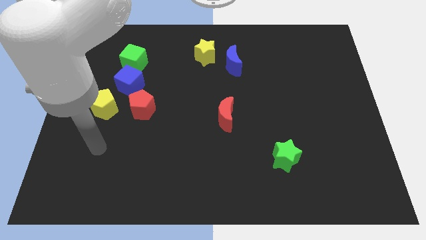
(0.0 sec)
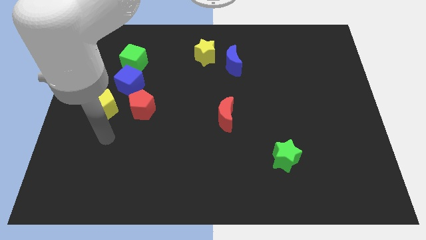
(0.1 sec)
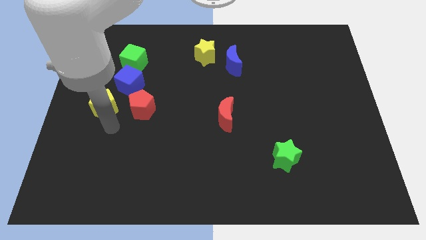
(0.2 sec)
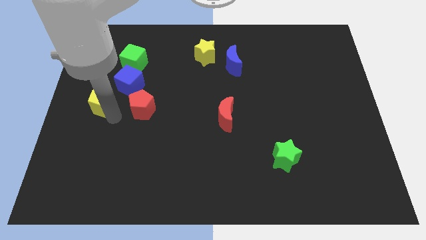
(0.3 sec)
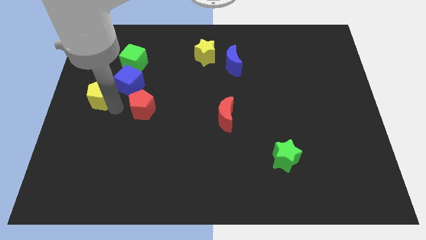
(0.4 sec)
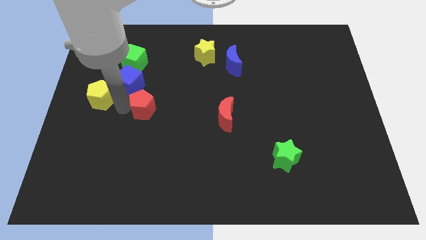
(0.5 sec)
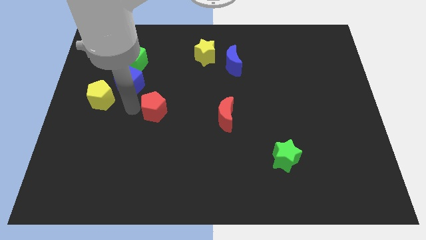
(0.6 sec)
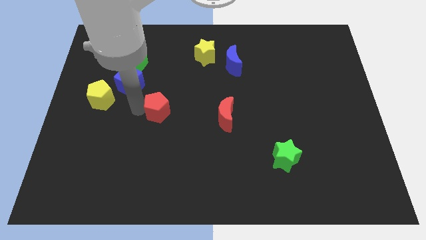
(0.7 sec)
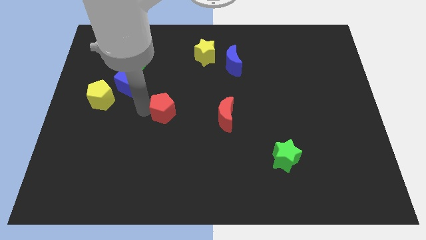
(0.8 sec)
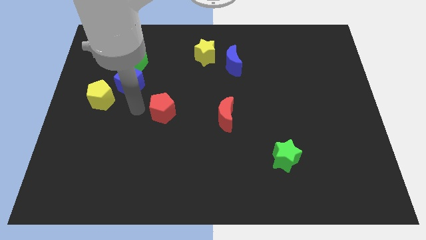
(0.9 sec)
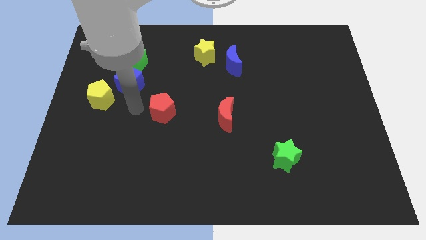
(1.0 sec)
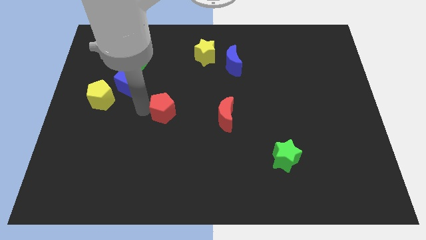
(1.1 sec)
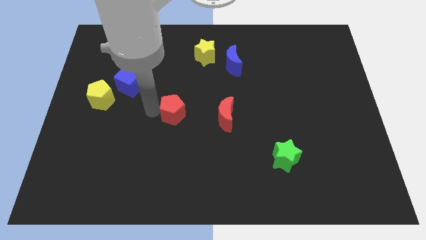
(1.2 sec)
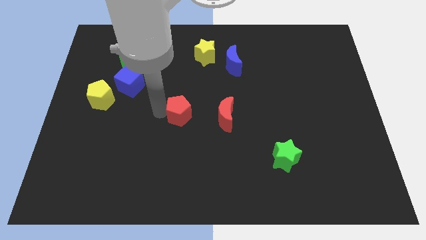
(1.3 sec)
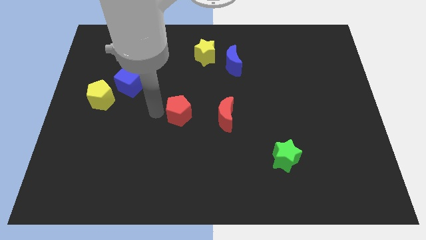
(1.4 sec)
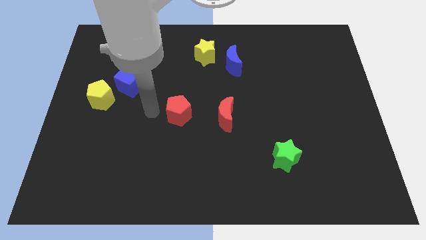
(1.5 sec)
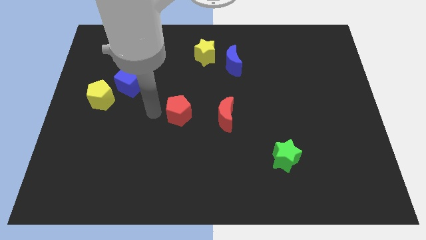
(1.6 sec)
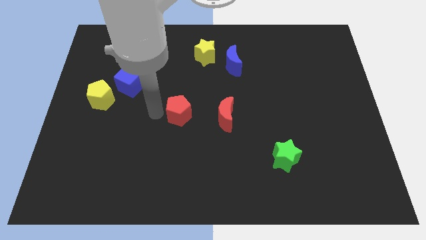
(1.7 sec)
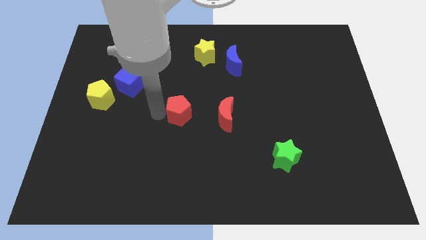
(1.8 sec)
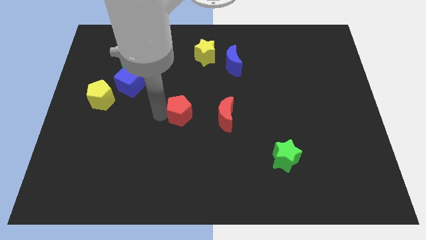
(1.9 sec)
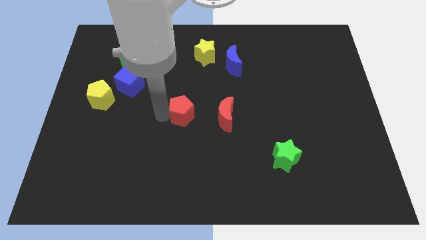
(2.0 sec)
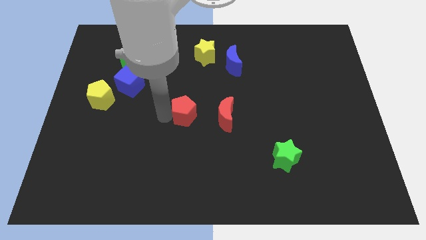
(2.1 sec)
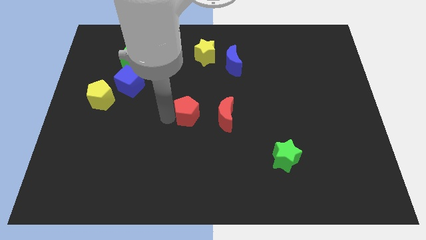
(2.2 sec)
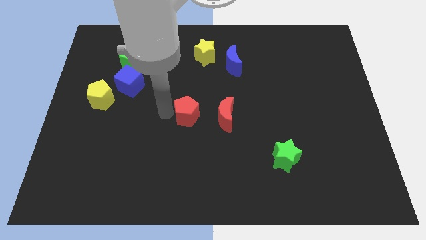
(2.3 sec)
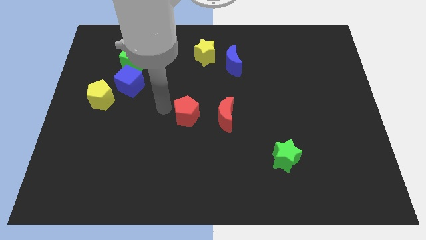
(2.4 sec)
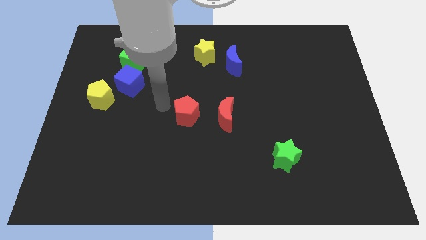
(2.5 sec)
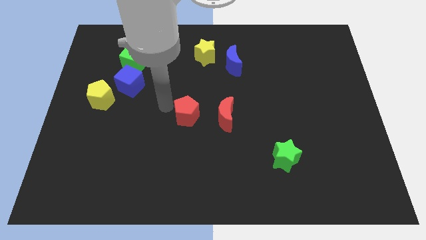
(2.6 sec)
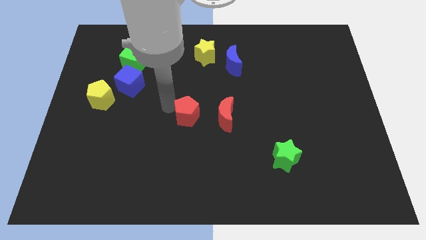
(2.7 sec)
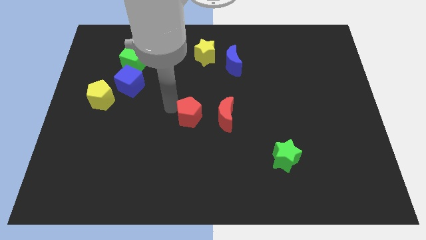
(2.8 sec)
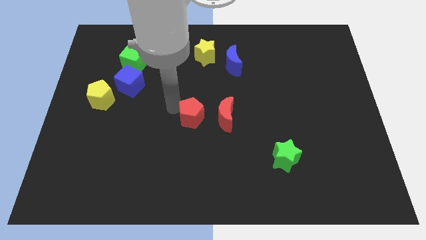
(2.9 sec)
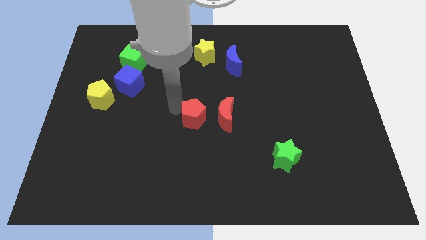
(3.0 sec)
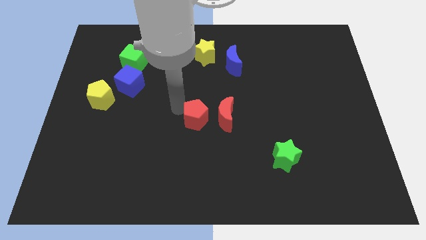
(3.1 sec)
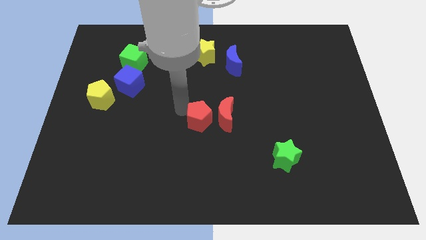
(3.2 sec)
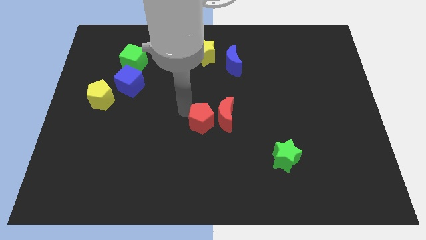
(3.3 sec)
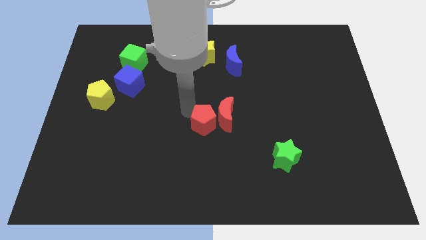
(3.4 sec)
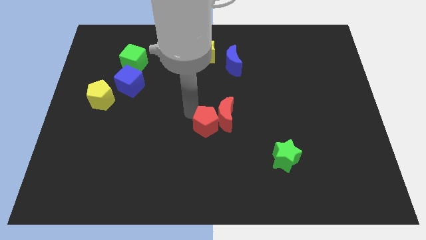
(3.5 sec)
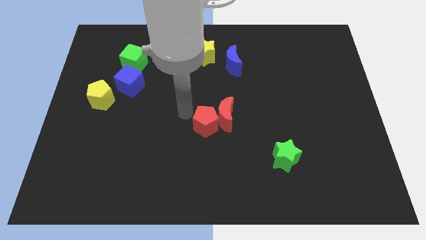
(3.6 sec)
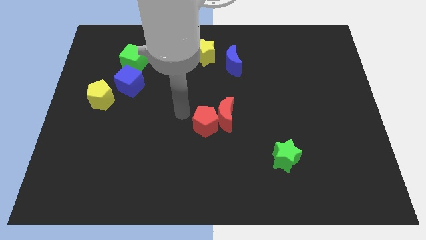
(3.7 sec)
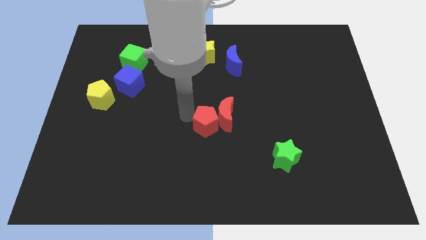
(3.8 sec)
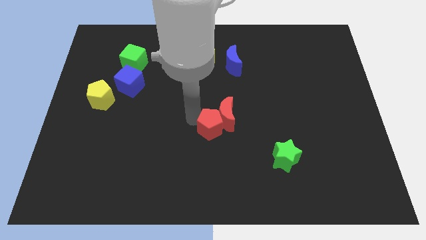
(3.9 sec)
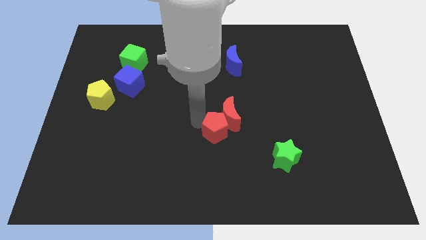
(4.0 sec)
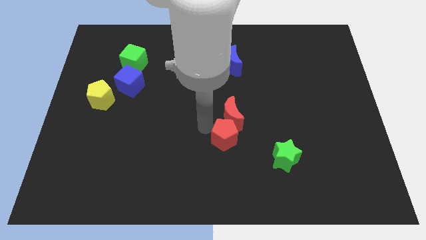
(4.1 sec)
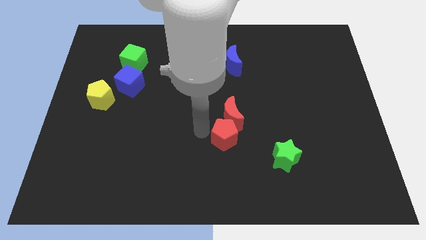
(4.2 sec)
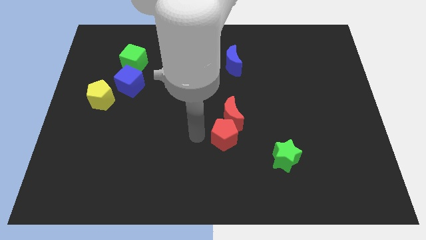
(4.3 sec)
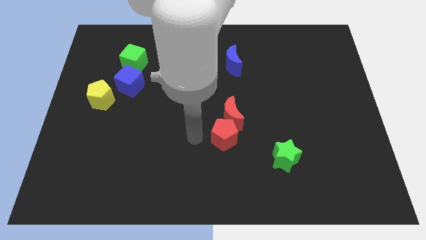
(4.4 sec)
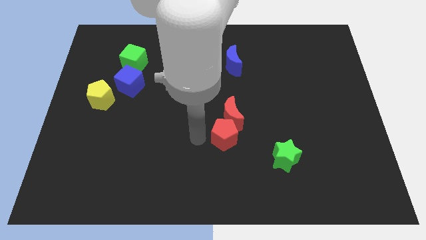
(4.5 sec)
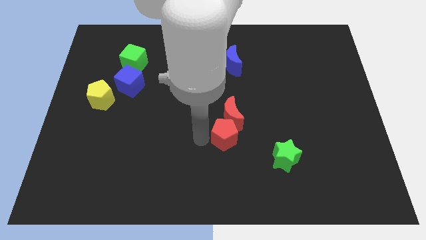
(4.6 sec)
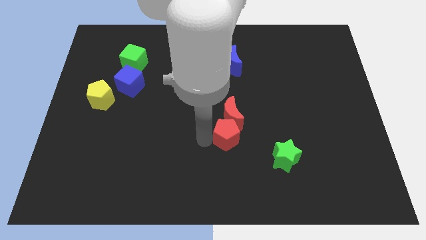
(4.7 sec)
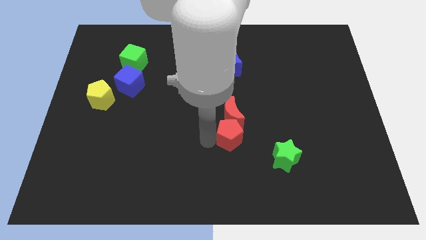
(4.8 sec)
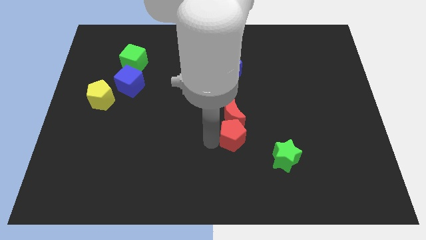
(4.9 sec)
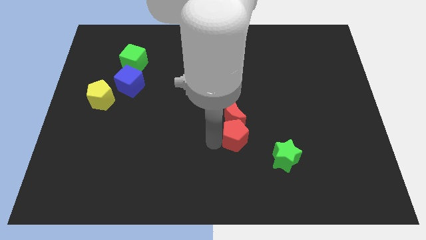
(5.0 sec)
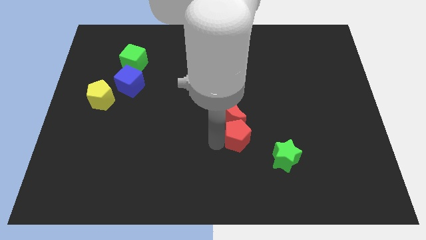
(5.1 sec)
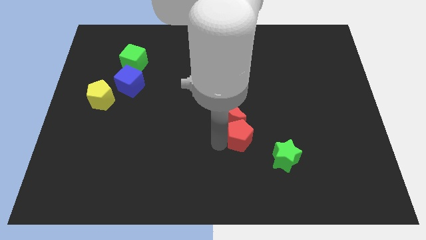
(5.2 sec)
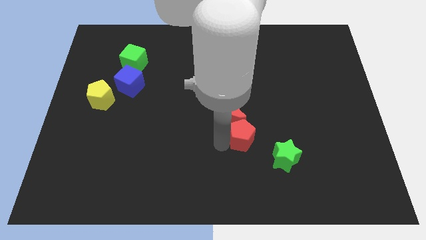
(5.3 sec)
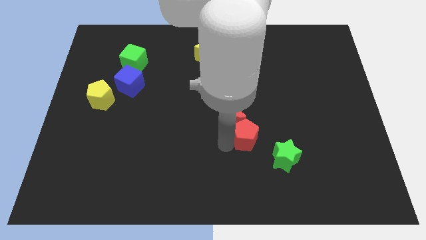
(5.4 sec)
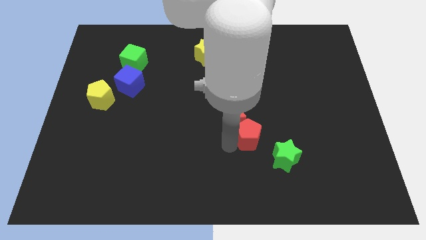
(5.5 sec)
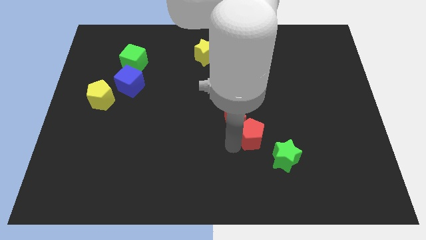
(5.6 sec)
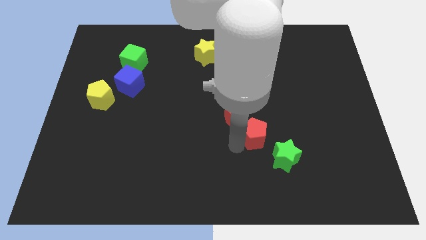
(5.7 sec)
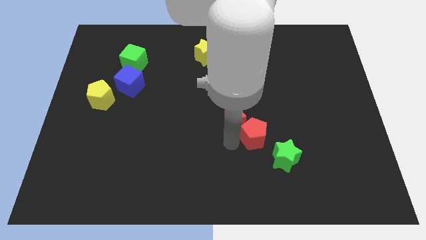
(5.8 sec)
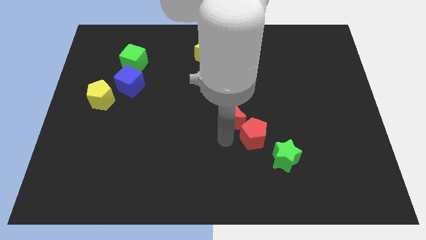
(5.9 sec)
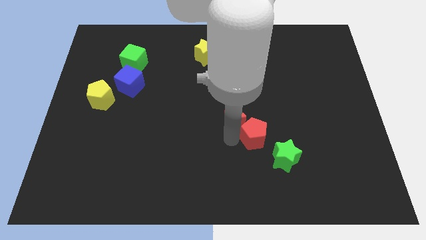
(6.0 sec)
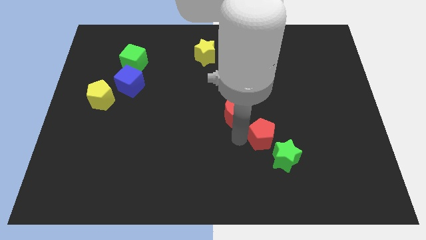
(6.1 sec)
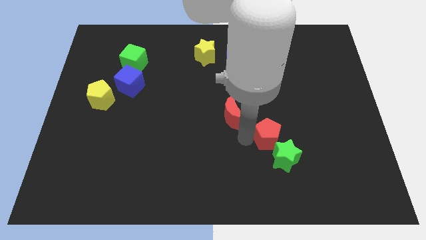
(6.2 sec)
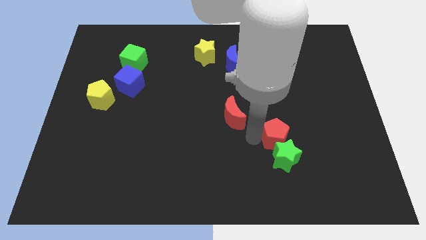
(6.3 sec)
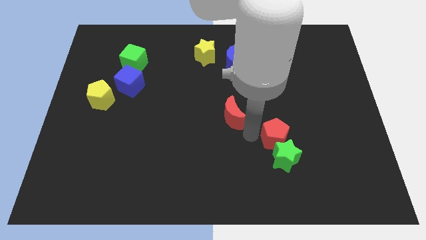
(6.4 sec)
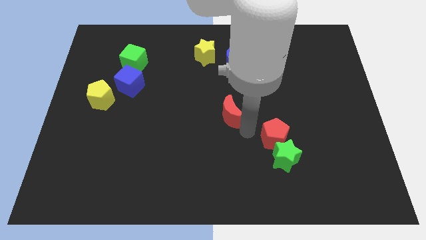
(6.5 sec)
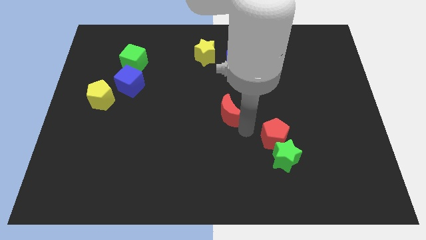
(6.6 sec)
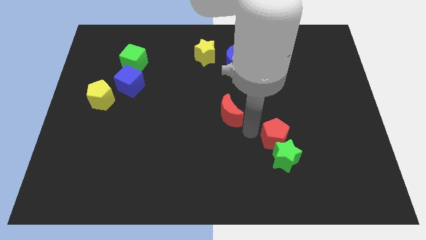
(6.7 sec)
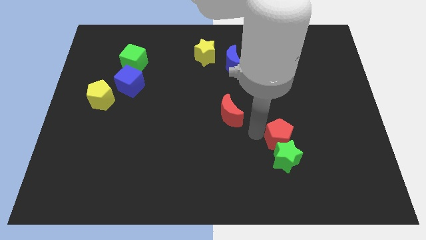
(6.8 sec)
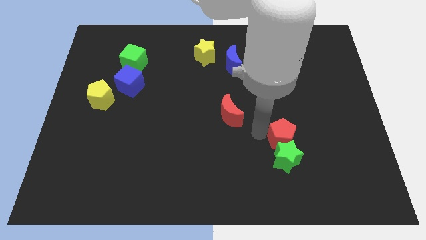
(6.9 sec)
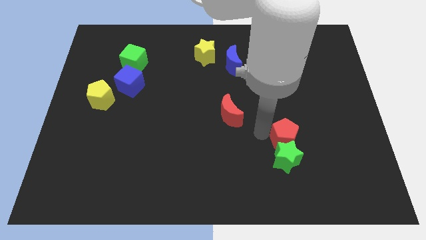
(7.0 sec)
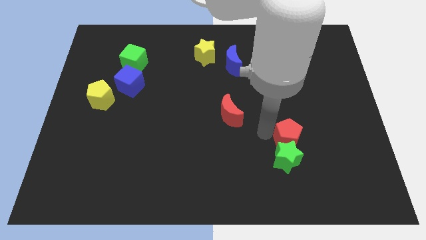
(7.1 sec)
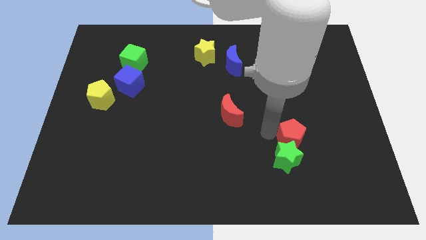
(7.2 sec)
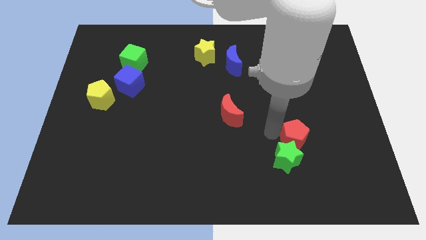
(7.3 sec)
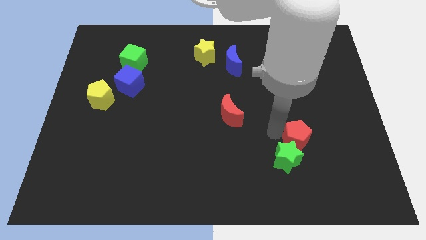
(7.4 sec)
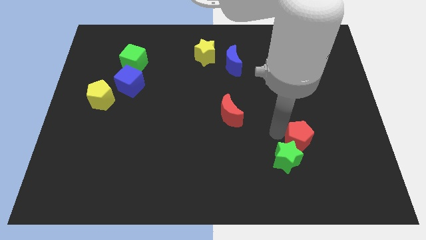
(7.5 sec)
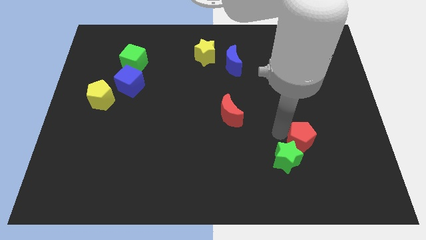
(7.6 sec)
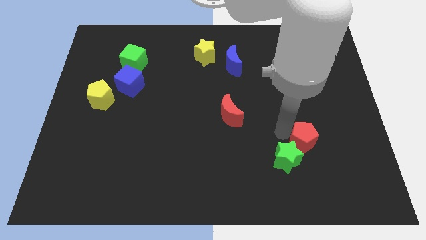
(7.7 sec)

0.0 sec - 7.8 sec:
slide the red pentagon to the right side of the green star

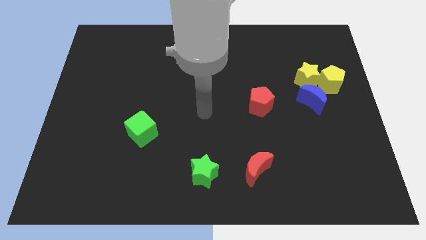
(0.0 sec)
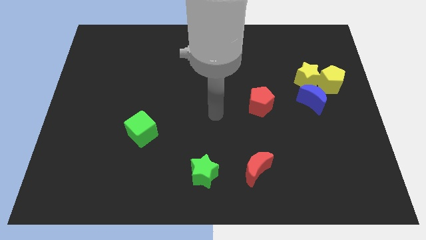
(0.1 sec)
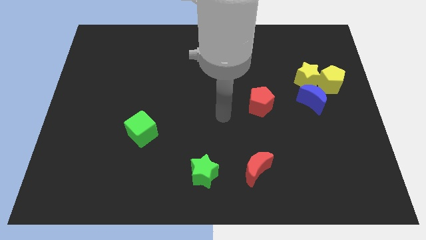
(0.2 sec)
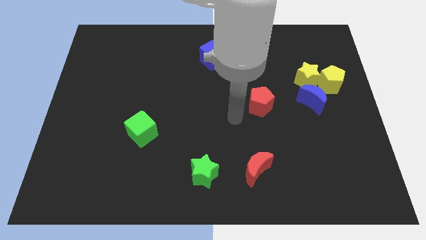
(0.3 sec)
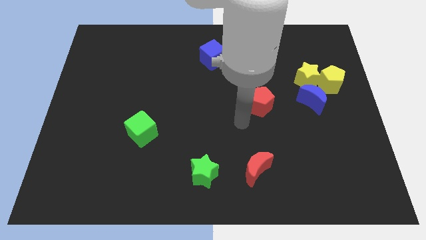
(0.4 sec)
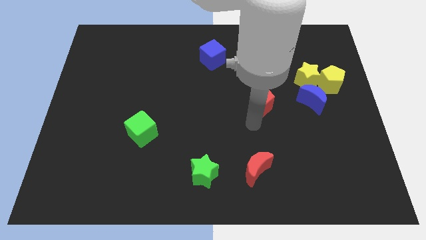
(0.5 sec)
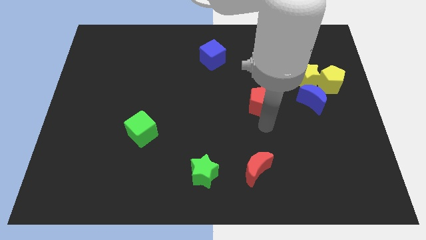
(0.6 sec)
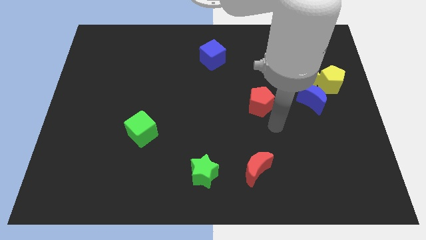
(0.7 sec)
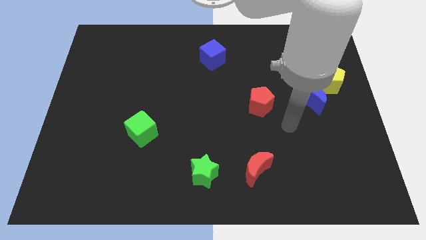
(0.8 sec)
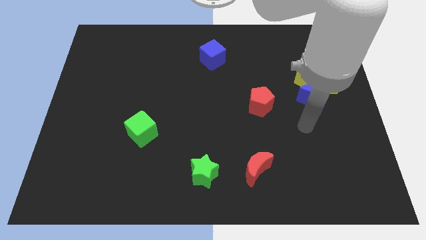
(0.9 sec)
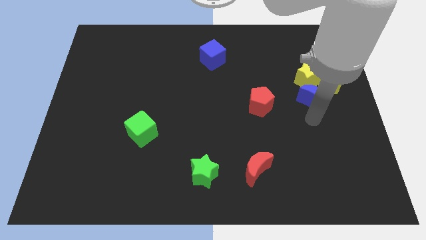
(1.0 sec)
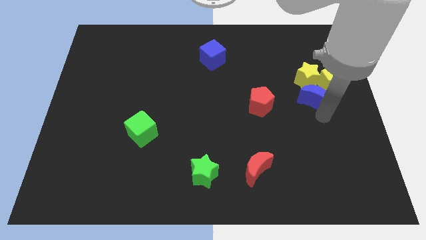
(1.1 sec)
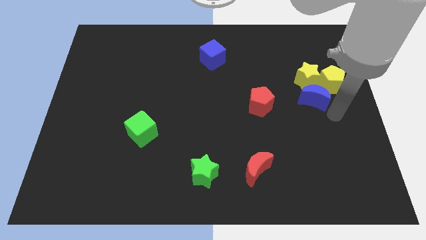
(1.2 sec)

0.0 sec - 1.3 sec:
push the blue moon to the left side of the yellow pentagon
